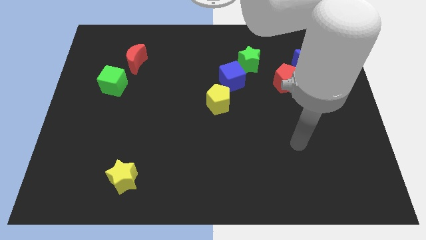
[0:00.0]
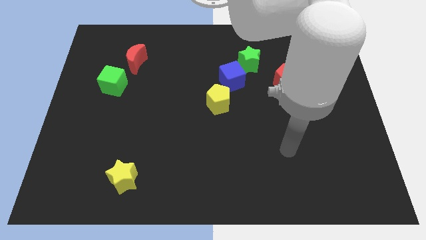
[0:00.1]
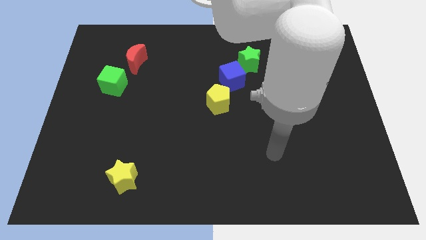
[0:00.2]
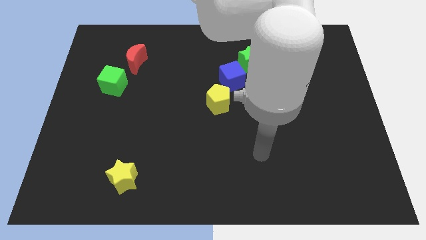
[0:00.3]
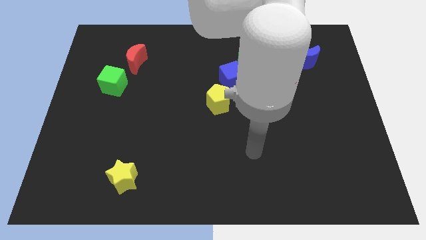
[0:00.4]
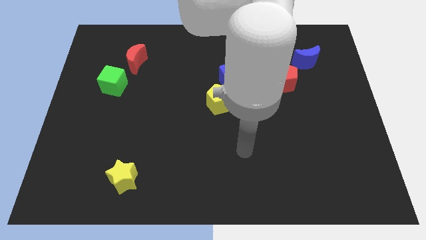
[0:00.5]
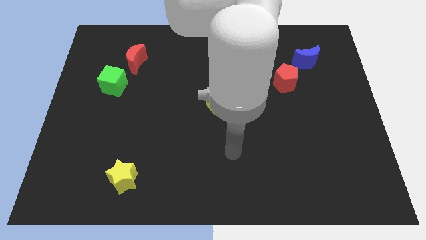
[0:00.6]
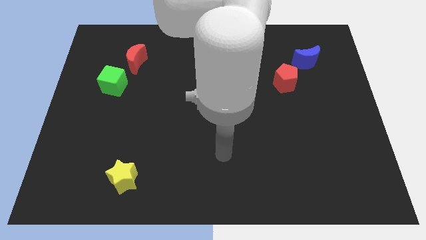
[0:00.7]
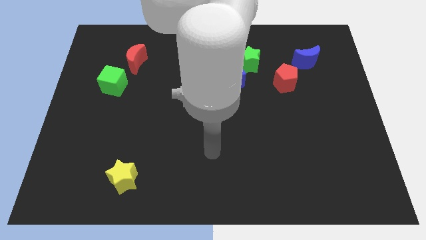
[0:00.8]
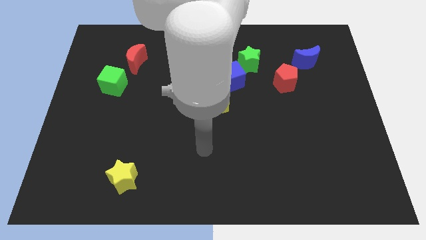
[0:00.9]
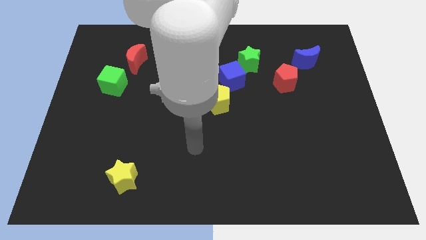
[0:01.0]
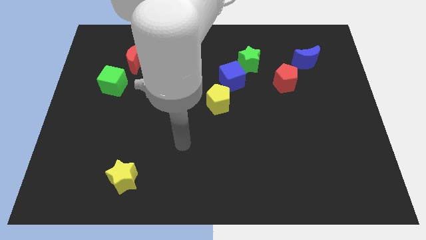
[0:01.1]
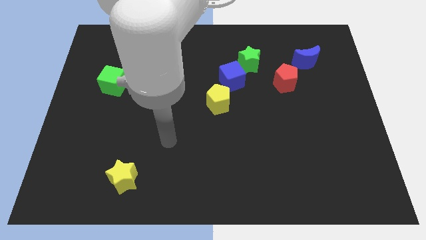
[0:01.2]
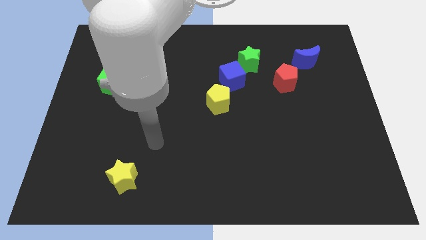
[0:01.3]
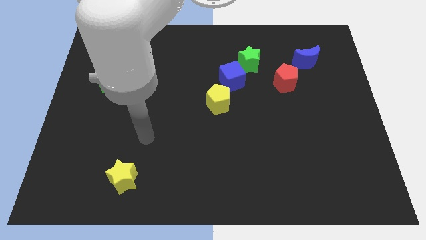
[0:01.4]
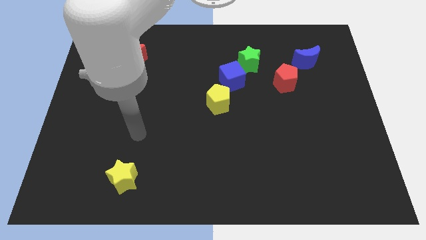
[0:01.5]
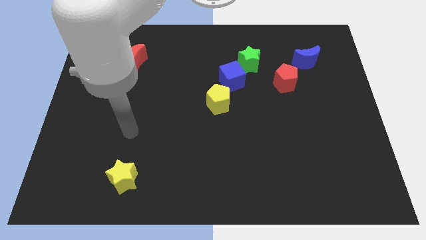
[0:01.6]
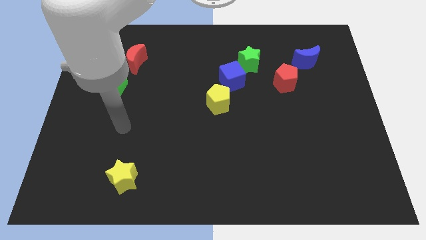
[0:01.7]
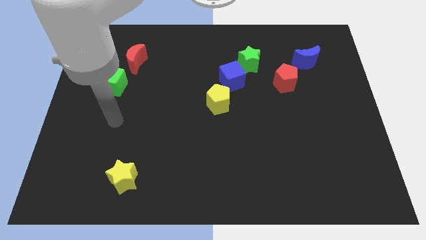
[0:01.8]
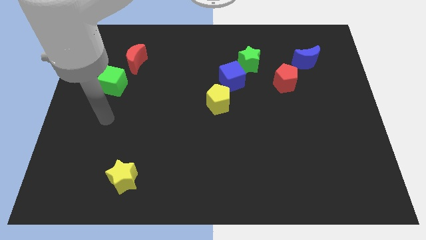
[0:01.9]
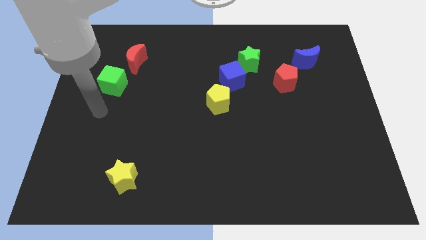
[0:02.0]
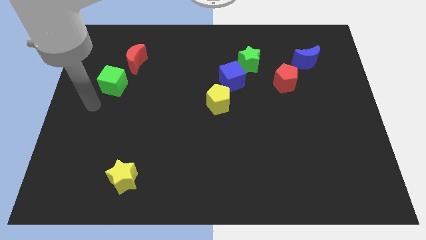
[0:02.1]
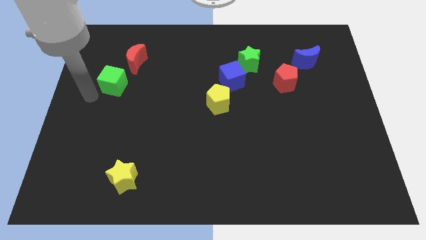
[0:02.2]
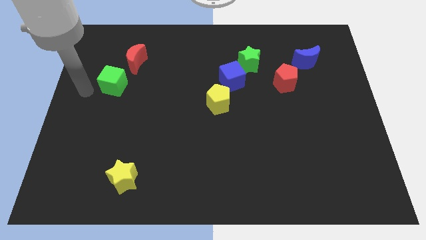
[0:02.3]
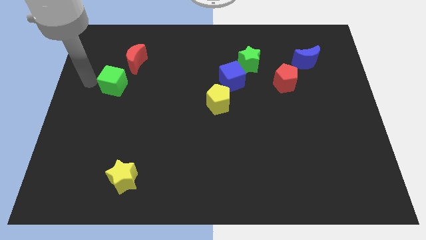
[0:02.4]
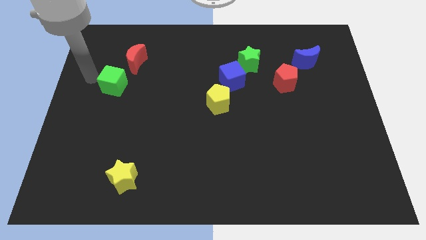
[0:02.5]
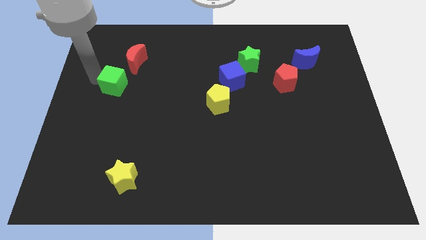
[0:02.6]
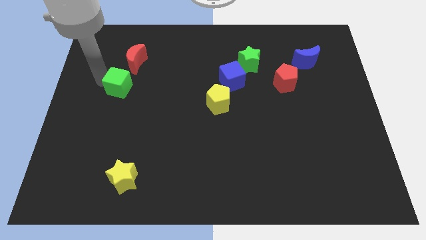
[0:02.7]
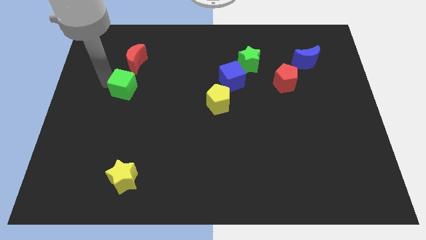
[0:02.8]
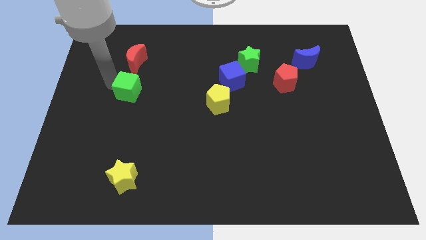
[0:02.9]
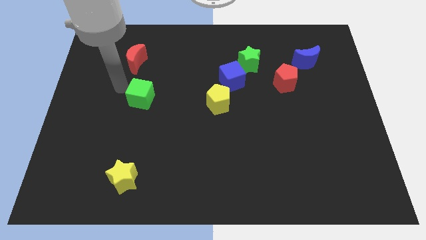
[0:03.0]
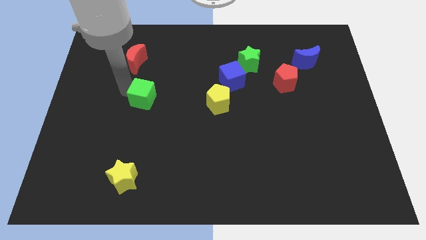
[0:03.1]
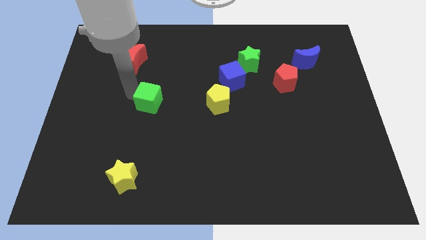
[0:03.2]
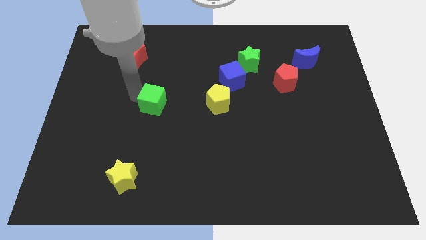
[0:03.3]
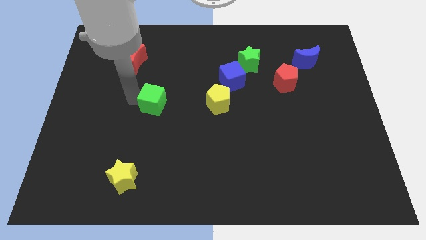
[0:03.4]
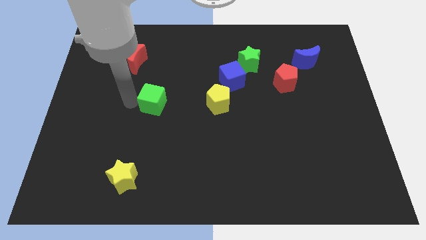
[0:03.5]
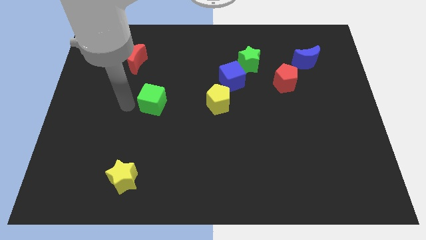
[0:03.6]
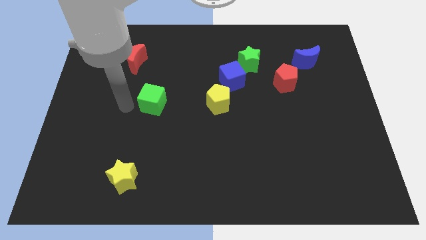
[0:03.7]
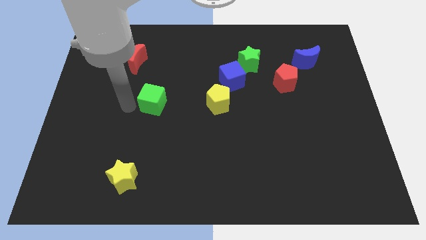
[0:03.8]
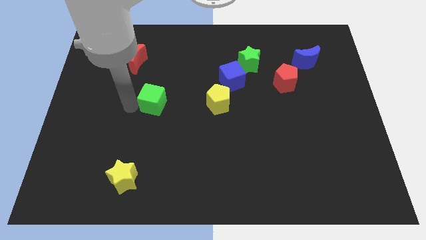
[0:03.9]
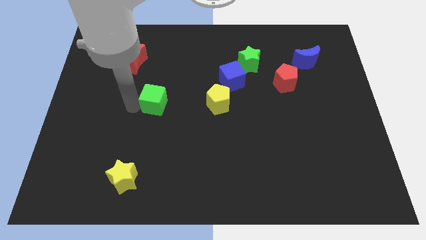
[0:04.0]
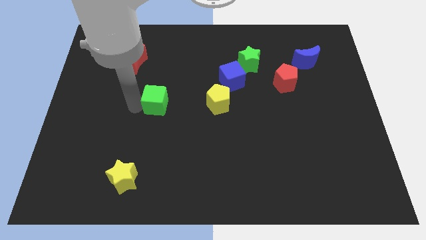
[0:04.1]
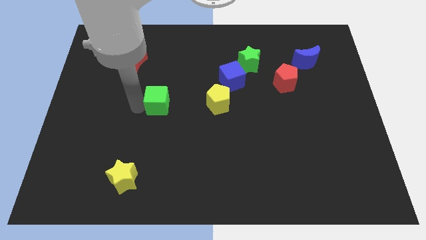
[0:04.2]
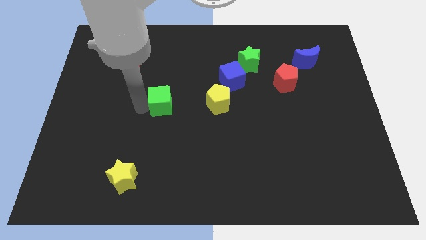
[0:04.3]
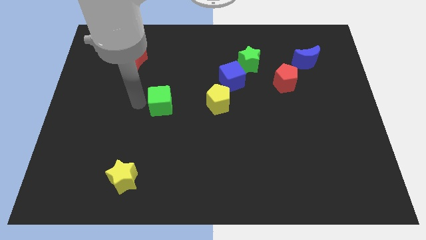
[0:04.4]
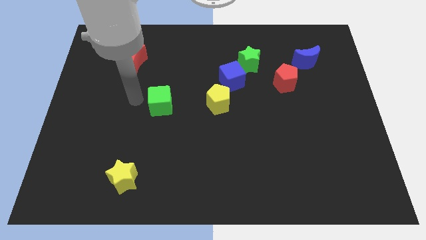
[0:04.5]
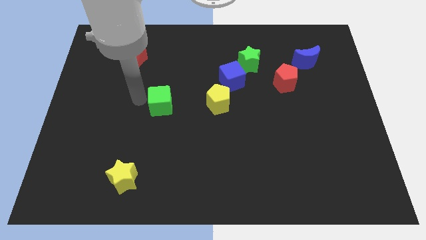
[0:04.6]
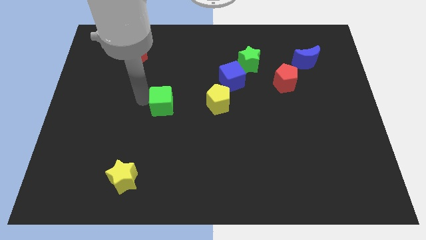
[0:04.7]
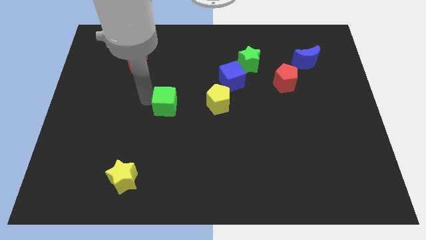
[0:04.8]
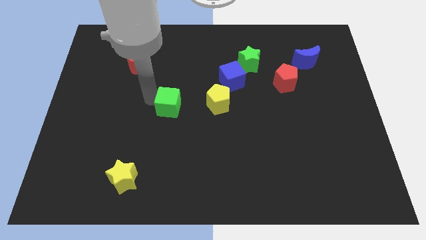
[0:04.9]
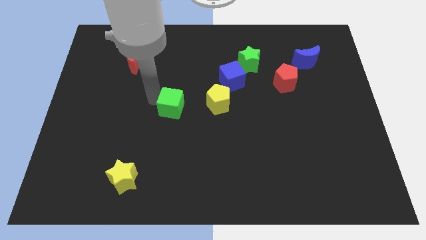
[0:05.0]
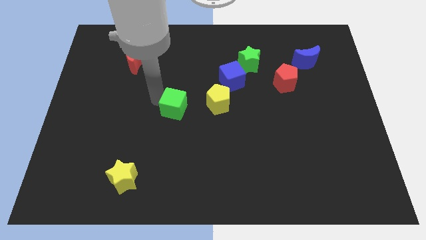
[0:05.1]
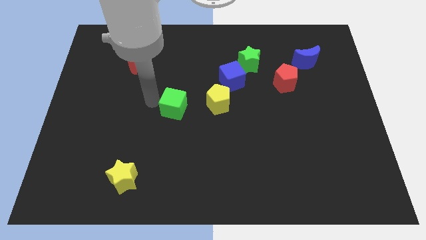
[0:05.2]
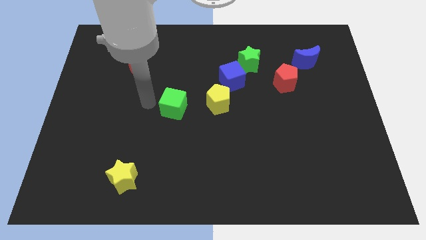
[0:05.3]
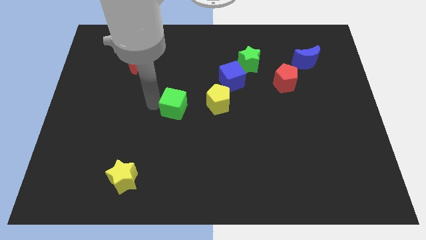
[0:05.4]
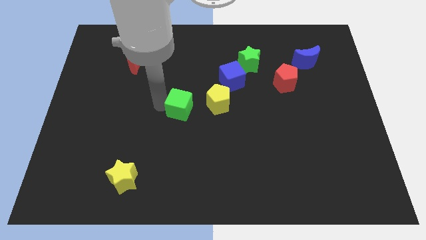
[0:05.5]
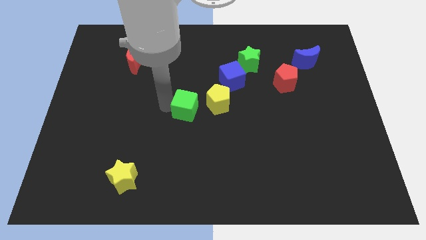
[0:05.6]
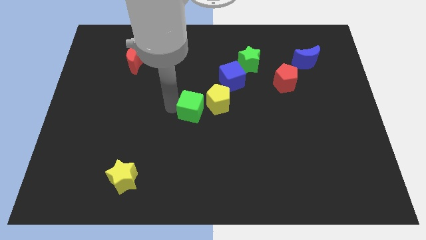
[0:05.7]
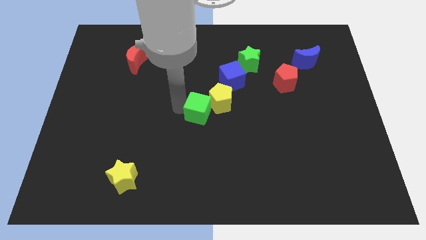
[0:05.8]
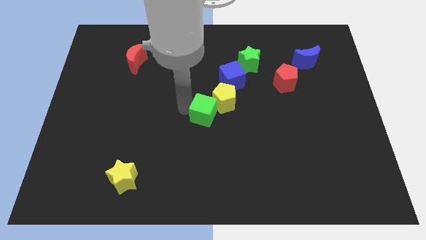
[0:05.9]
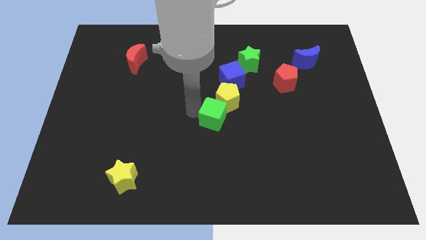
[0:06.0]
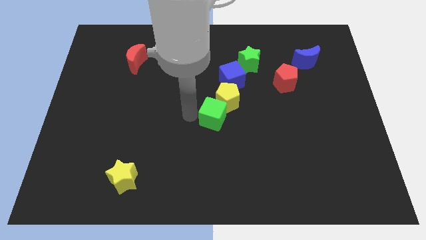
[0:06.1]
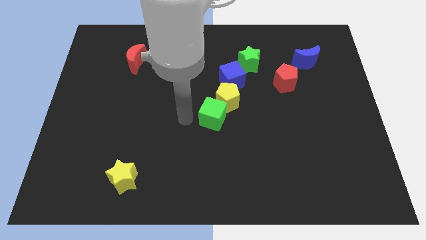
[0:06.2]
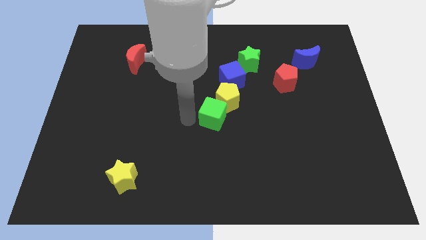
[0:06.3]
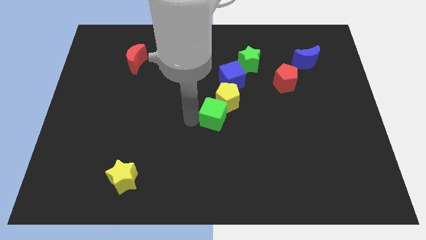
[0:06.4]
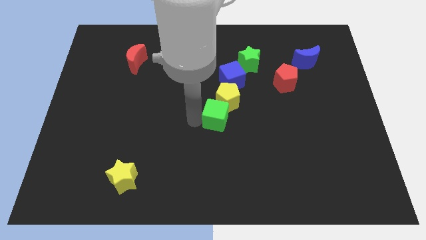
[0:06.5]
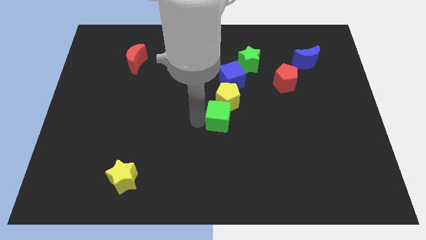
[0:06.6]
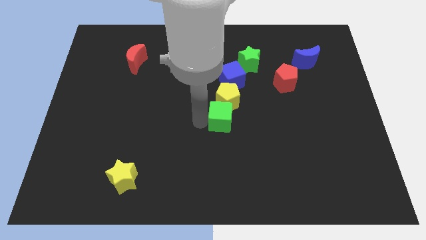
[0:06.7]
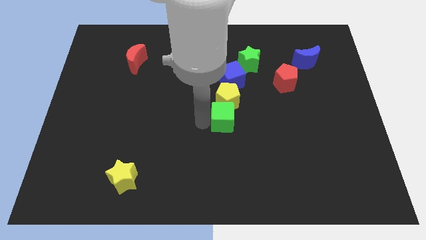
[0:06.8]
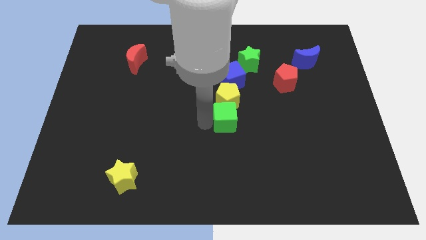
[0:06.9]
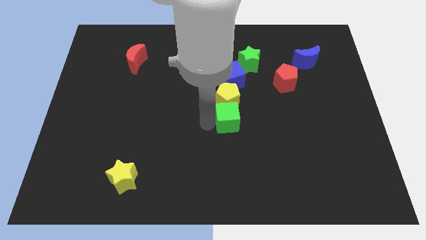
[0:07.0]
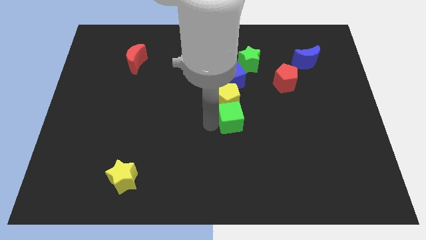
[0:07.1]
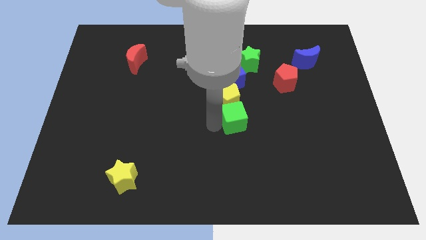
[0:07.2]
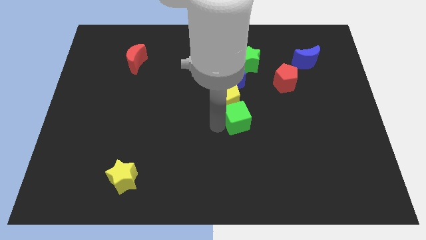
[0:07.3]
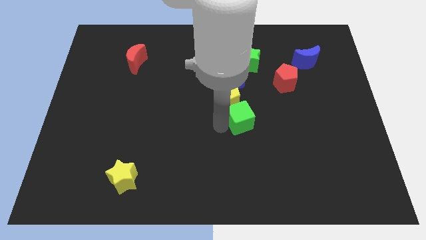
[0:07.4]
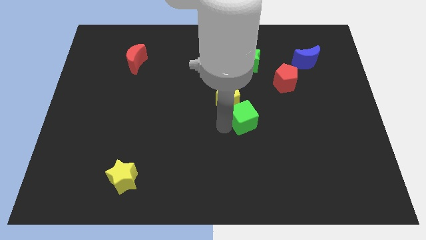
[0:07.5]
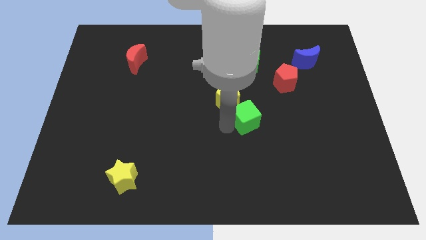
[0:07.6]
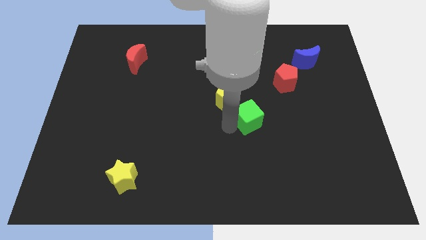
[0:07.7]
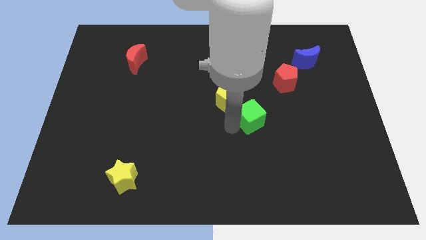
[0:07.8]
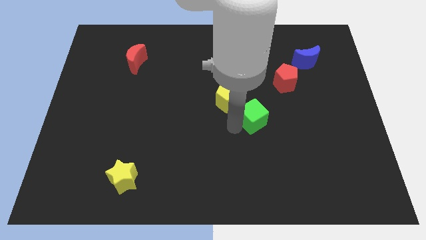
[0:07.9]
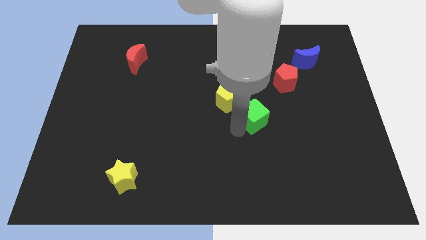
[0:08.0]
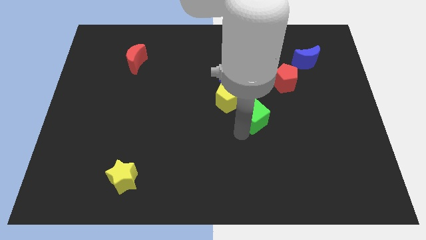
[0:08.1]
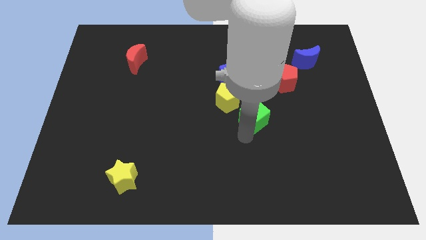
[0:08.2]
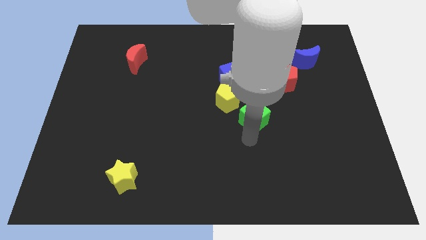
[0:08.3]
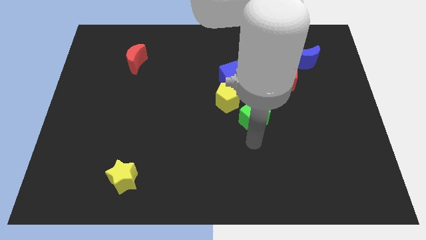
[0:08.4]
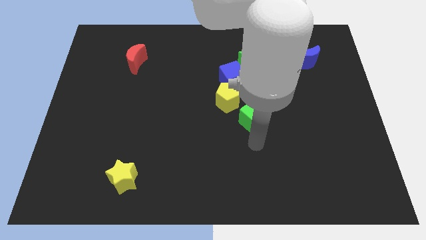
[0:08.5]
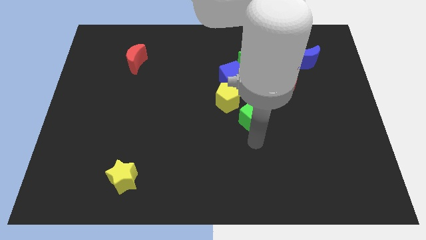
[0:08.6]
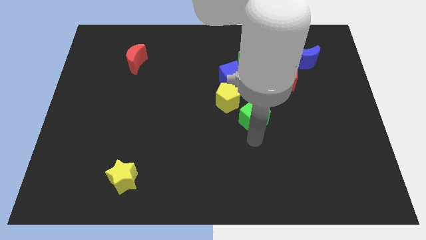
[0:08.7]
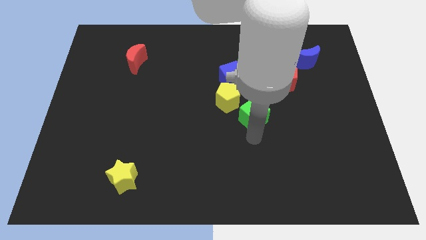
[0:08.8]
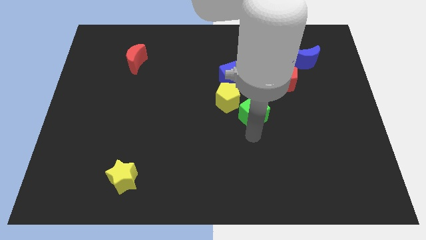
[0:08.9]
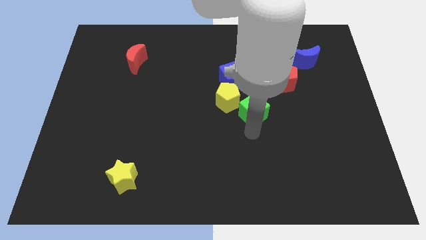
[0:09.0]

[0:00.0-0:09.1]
push the green cube diagonally down and to the left of the red pentagon
